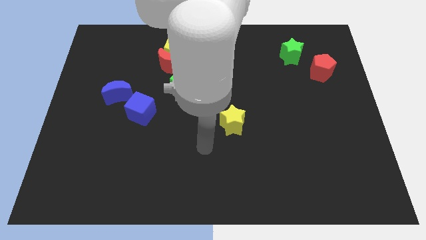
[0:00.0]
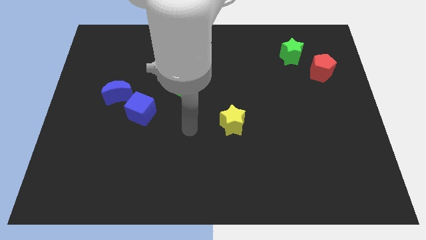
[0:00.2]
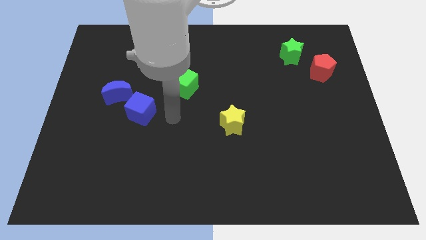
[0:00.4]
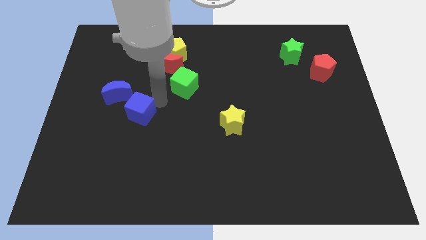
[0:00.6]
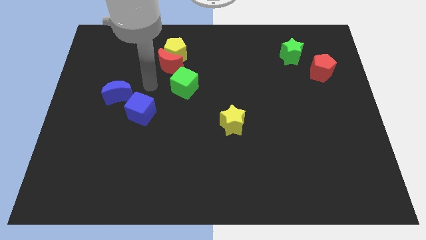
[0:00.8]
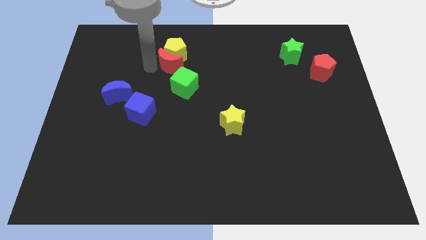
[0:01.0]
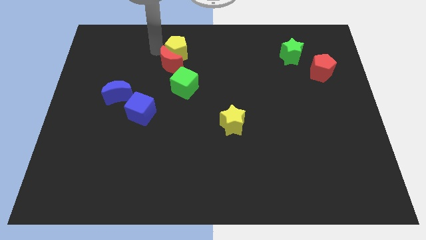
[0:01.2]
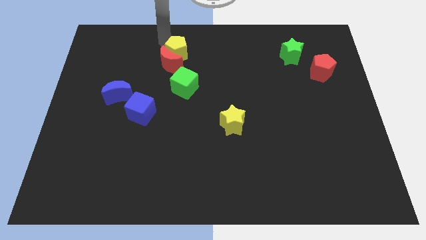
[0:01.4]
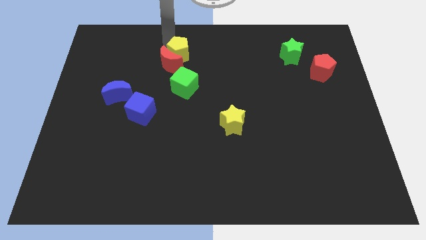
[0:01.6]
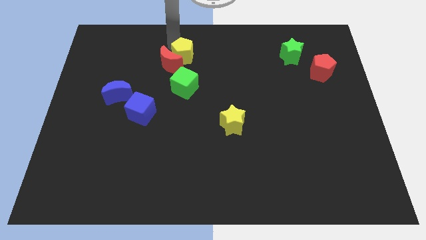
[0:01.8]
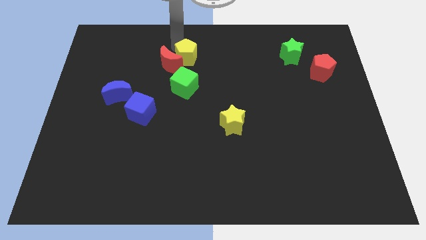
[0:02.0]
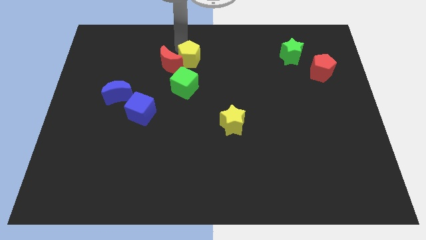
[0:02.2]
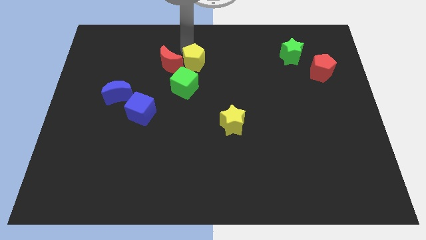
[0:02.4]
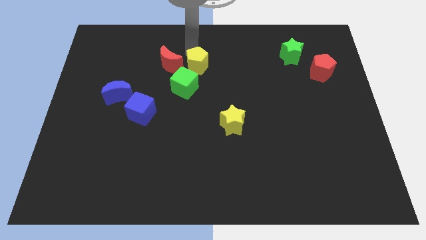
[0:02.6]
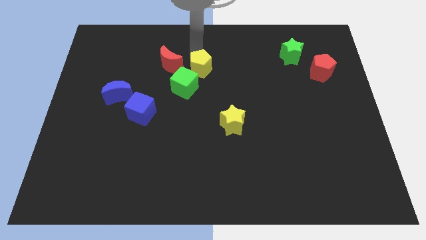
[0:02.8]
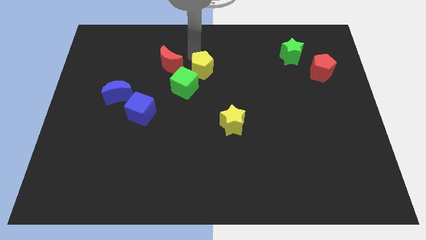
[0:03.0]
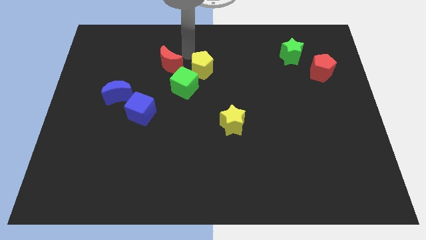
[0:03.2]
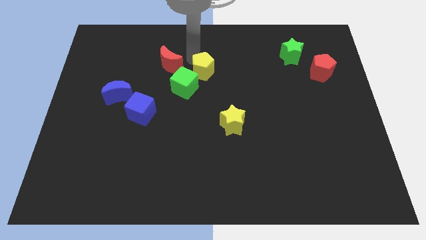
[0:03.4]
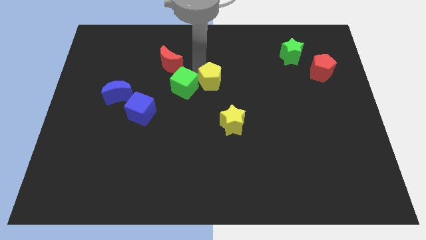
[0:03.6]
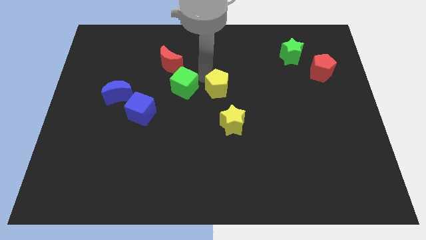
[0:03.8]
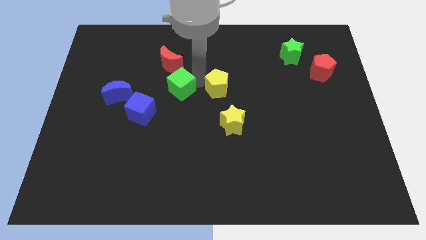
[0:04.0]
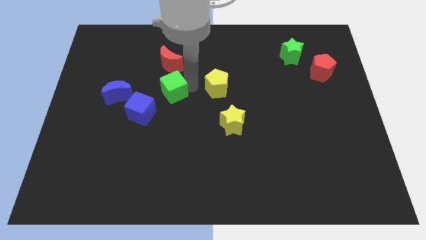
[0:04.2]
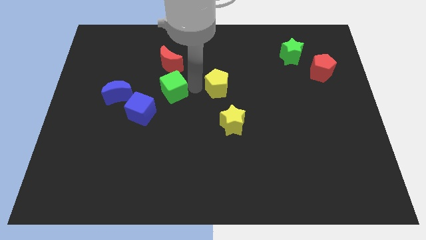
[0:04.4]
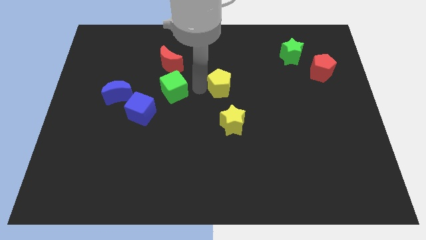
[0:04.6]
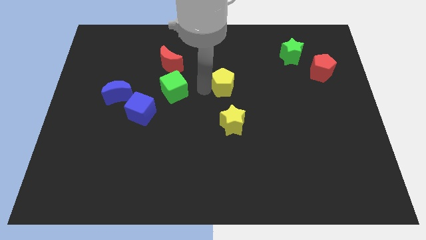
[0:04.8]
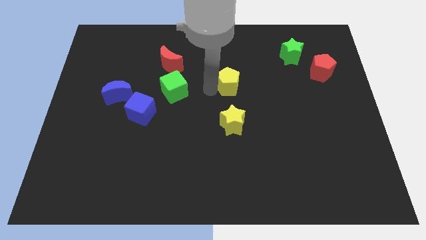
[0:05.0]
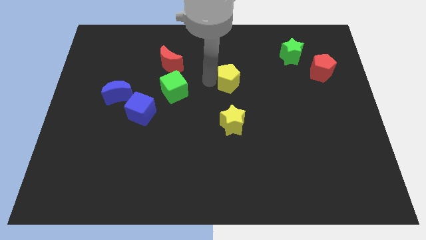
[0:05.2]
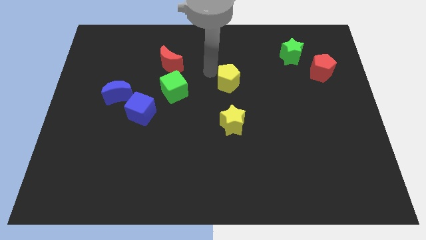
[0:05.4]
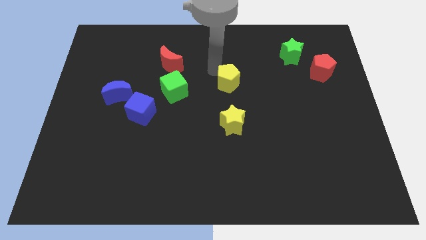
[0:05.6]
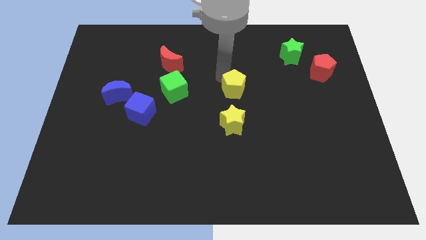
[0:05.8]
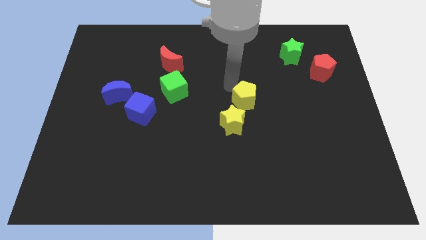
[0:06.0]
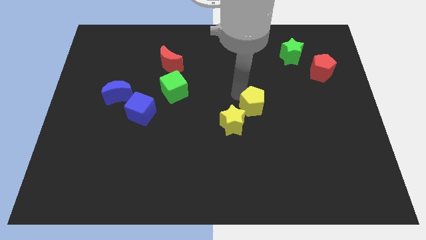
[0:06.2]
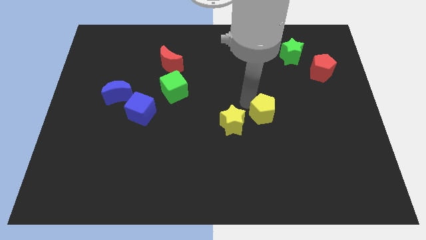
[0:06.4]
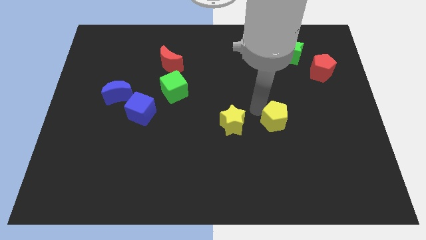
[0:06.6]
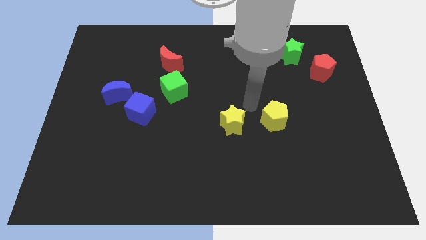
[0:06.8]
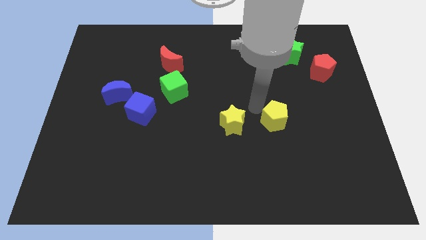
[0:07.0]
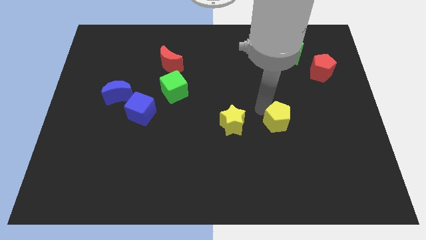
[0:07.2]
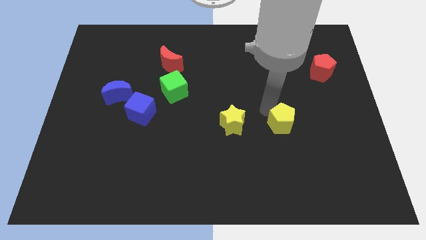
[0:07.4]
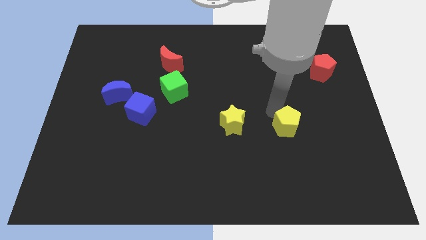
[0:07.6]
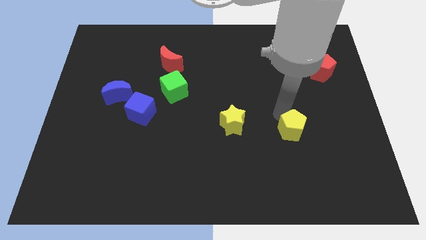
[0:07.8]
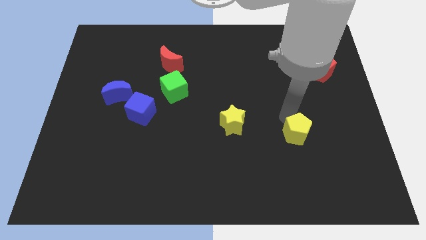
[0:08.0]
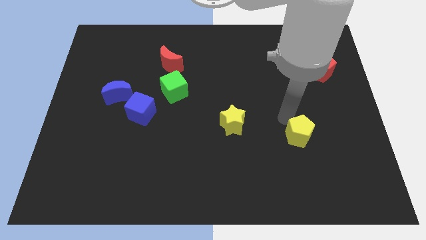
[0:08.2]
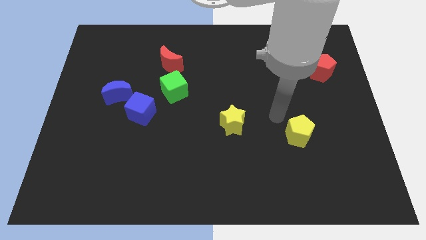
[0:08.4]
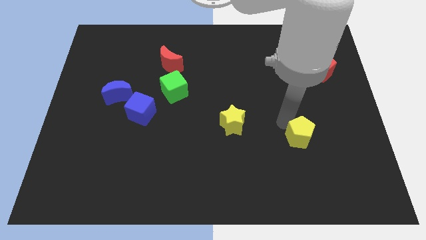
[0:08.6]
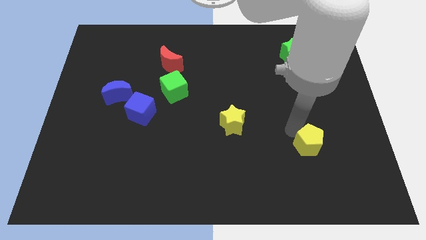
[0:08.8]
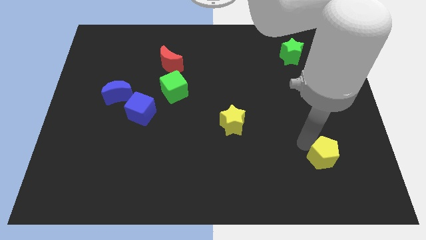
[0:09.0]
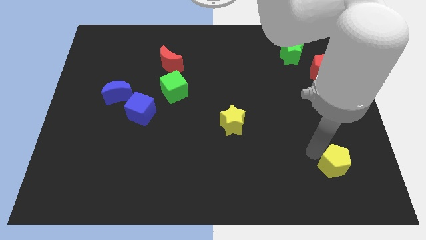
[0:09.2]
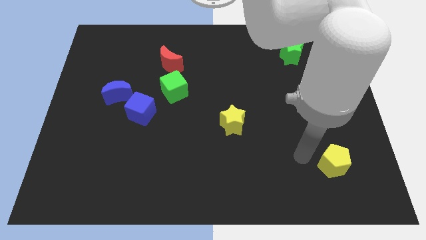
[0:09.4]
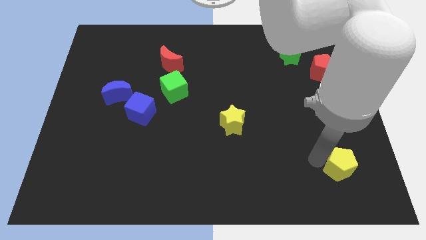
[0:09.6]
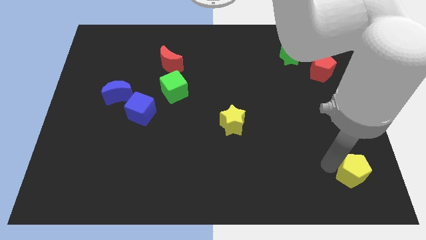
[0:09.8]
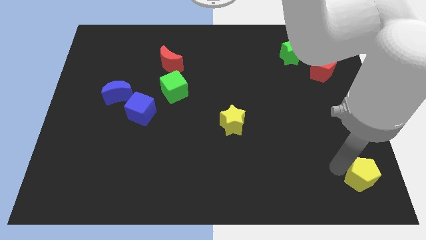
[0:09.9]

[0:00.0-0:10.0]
push the yellow pentagon to the bottom right of the board

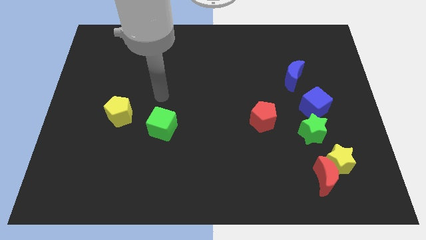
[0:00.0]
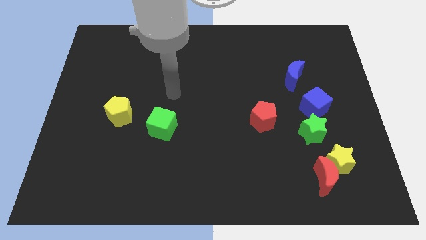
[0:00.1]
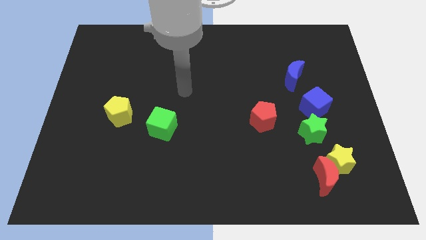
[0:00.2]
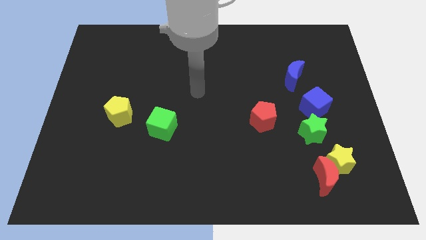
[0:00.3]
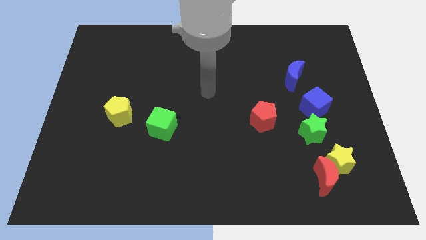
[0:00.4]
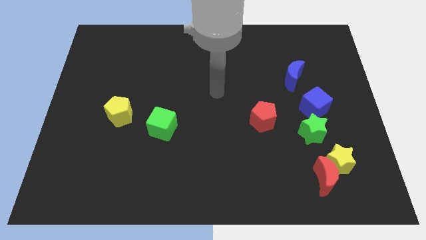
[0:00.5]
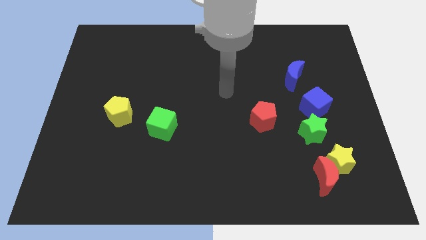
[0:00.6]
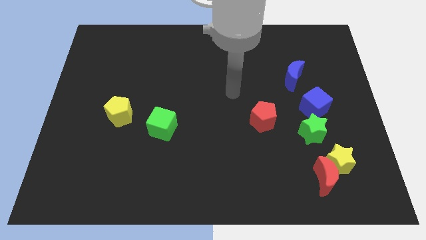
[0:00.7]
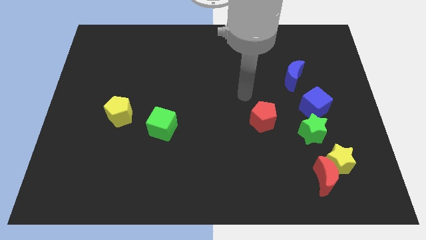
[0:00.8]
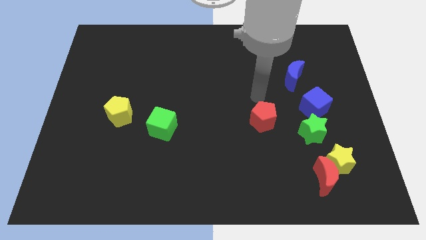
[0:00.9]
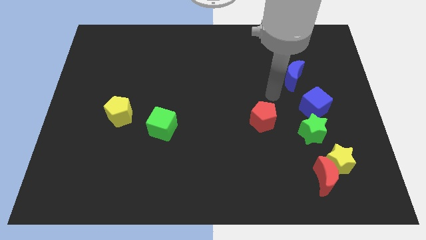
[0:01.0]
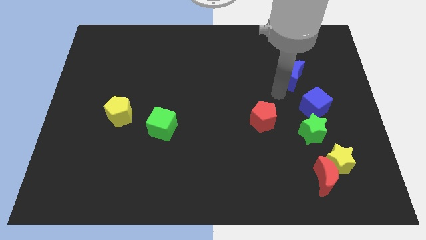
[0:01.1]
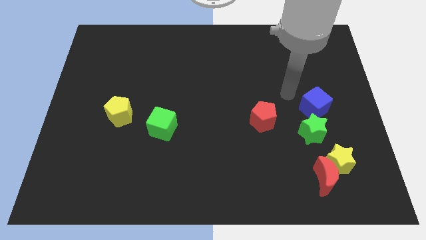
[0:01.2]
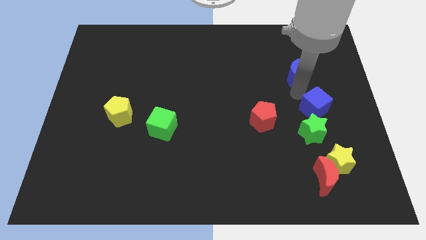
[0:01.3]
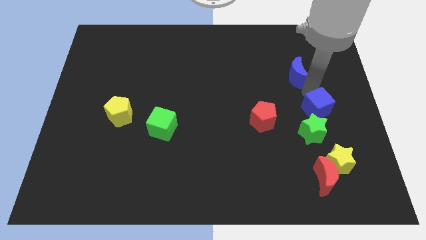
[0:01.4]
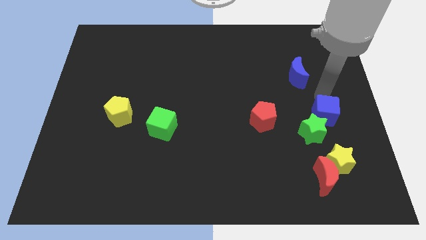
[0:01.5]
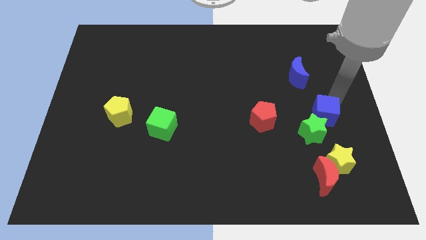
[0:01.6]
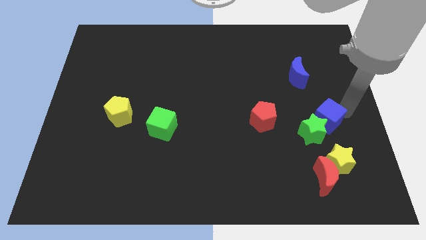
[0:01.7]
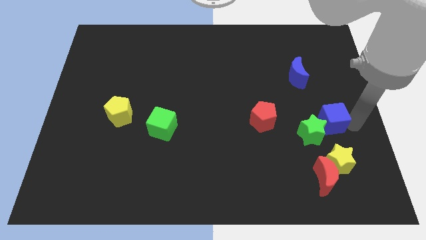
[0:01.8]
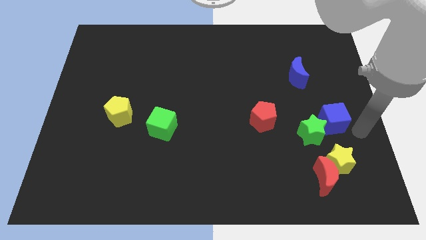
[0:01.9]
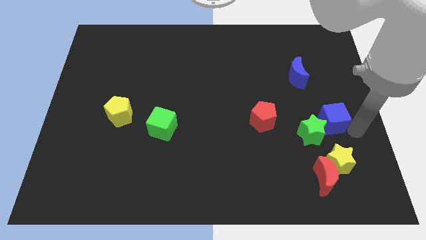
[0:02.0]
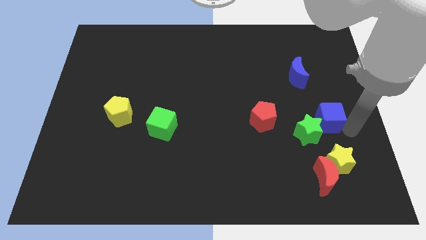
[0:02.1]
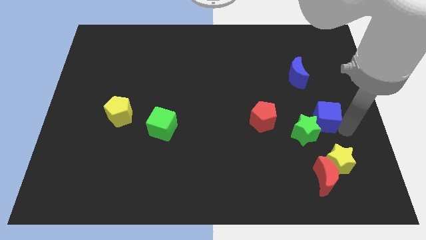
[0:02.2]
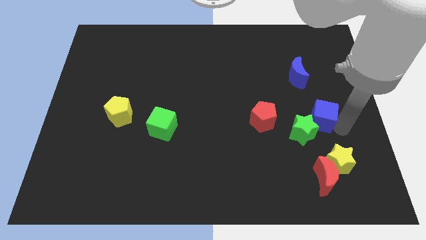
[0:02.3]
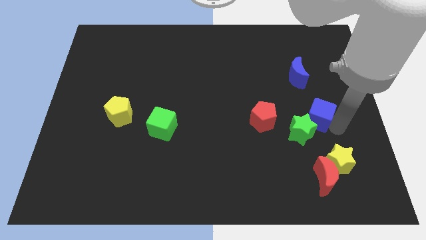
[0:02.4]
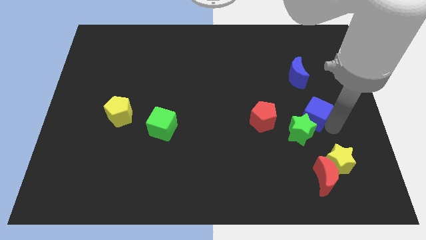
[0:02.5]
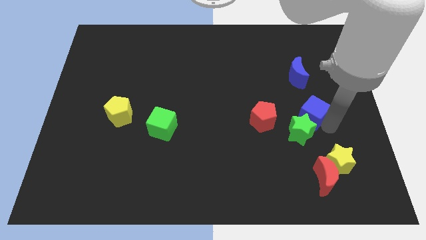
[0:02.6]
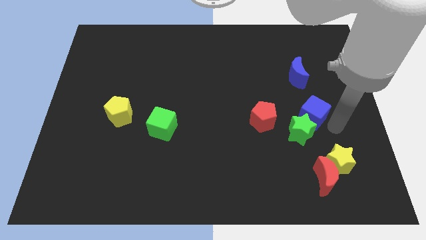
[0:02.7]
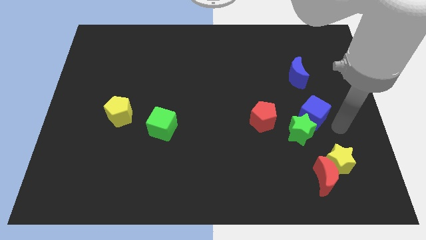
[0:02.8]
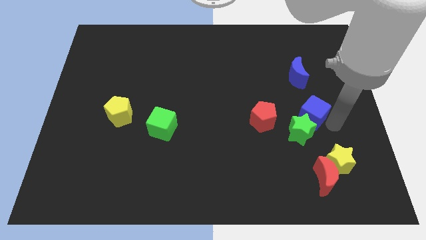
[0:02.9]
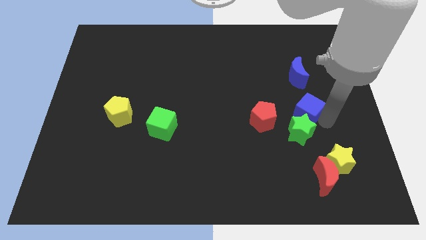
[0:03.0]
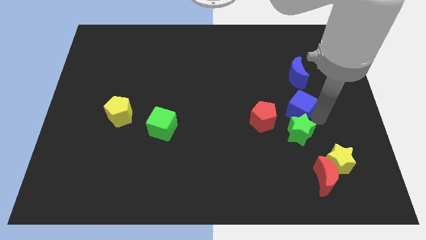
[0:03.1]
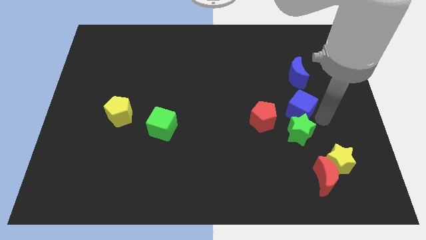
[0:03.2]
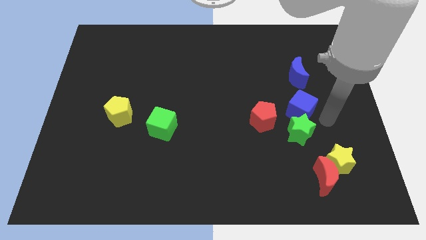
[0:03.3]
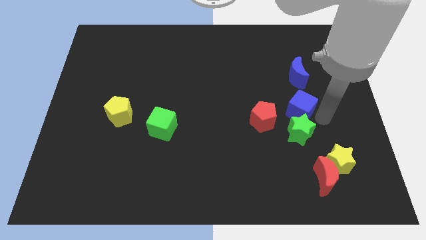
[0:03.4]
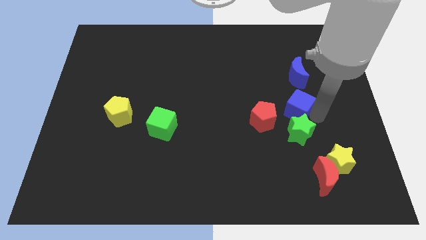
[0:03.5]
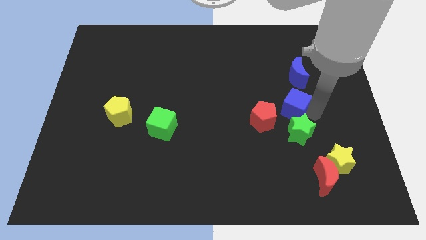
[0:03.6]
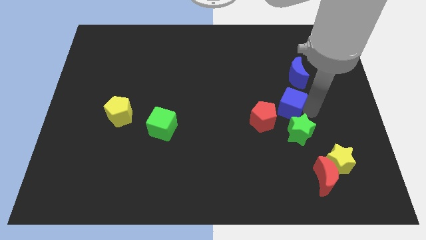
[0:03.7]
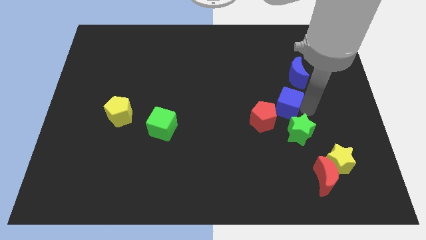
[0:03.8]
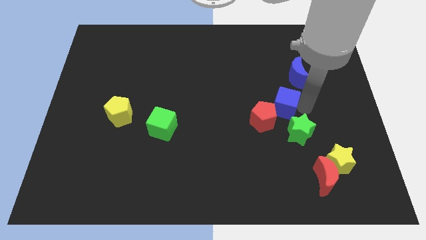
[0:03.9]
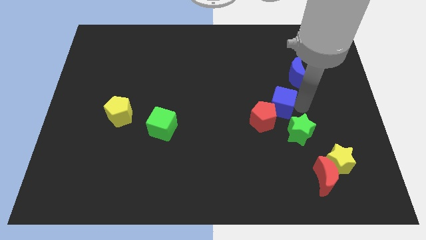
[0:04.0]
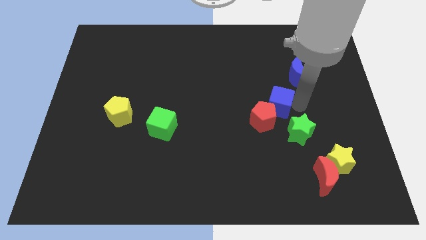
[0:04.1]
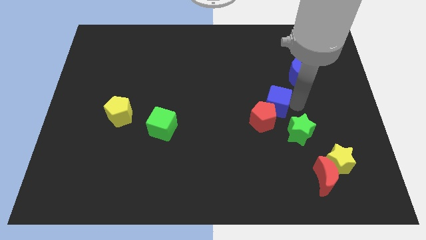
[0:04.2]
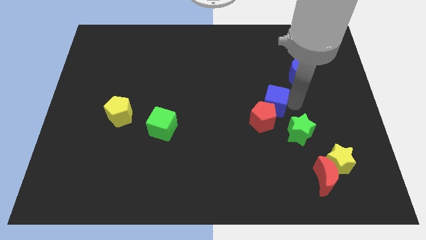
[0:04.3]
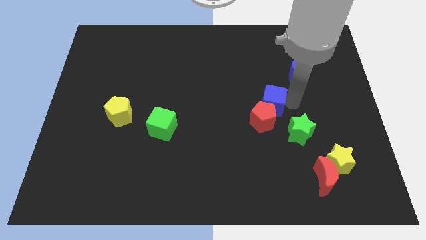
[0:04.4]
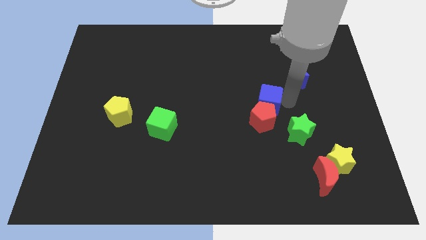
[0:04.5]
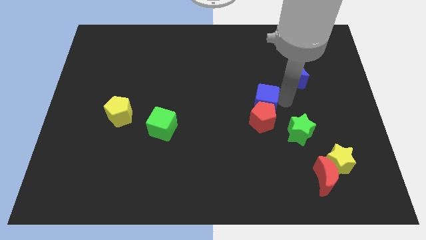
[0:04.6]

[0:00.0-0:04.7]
slide the blue cube to the center
